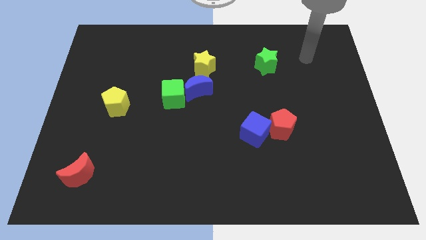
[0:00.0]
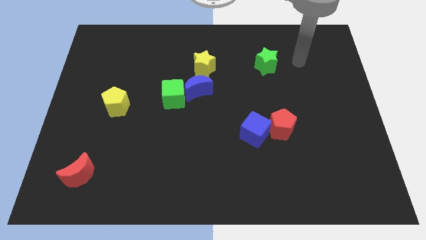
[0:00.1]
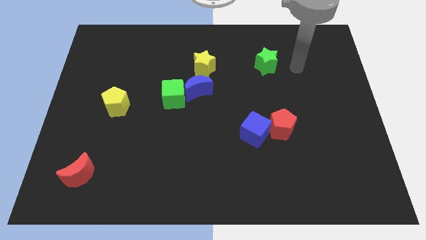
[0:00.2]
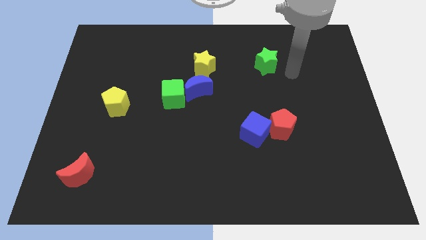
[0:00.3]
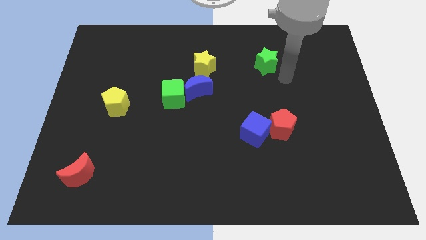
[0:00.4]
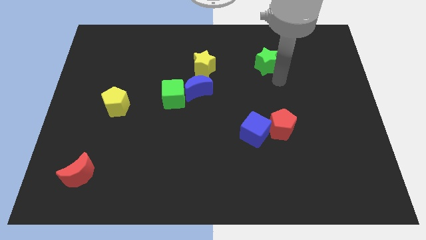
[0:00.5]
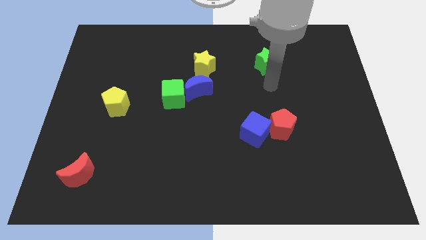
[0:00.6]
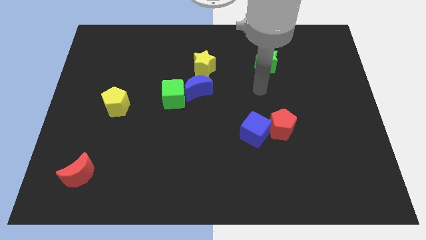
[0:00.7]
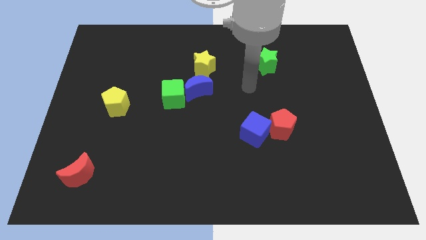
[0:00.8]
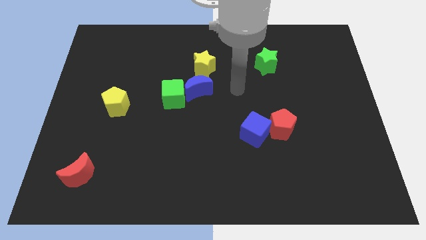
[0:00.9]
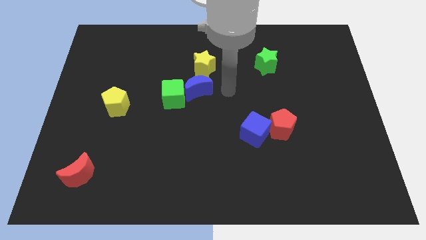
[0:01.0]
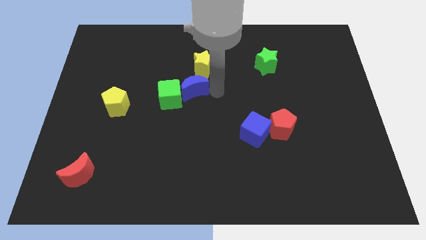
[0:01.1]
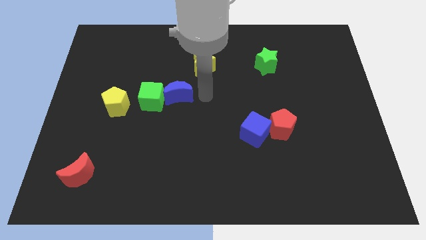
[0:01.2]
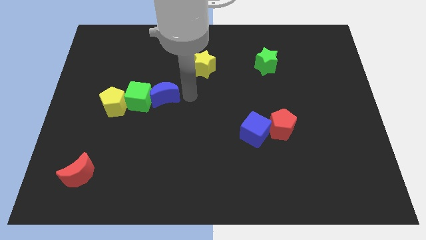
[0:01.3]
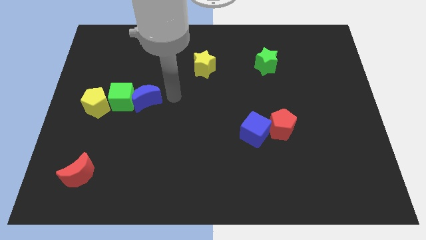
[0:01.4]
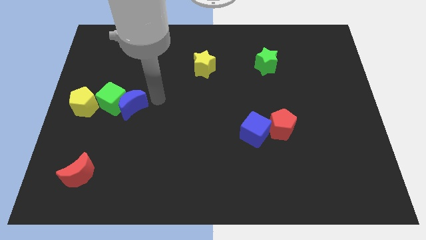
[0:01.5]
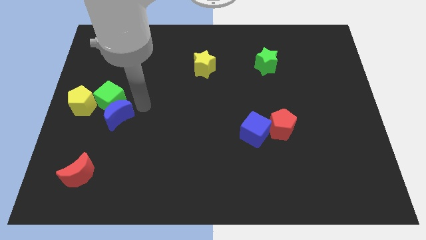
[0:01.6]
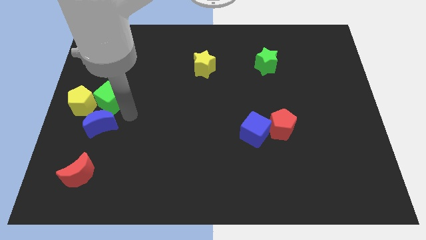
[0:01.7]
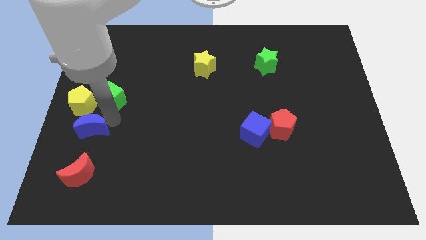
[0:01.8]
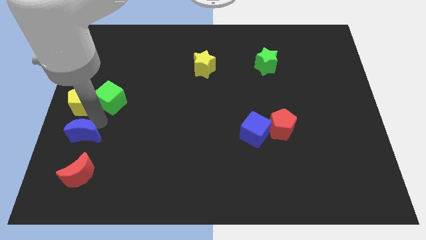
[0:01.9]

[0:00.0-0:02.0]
separate the green cube from the blue moon

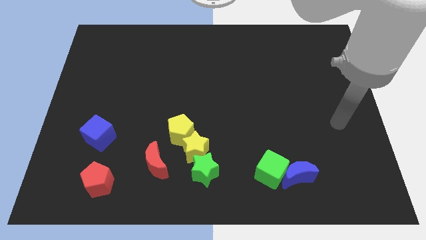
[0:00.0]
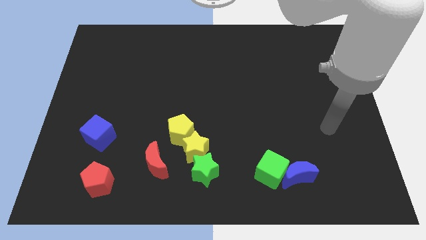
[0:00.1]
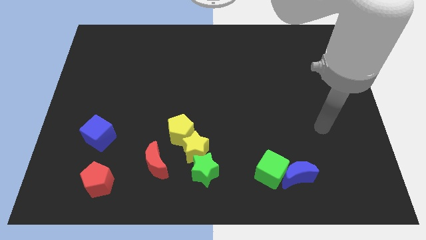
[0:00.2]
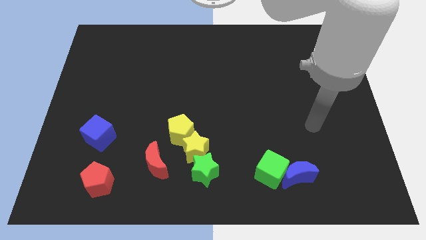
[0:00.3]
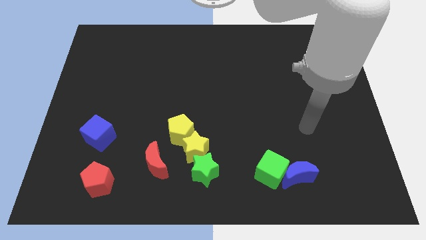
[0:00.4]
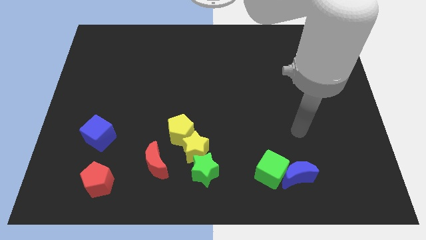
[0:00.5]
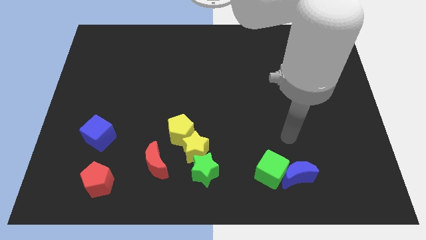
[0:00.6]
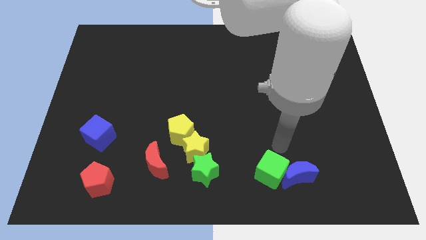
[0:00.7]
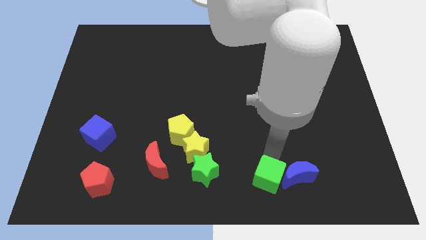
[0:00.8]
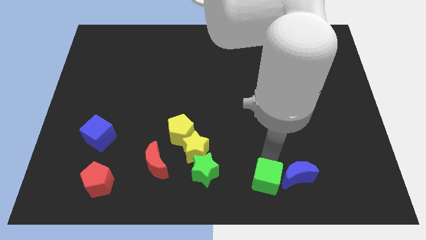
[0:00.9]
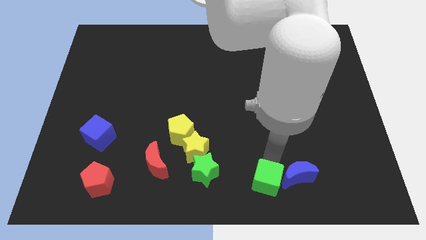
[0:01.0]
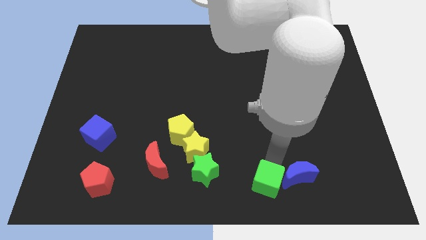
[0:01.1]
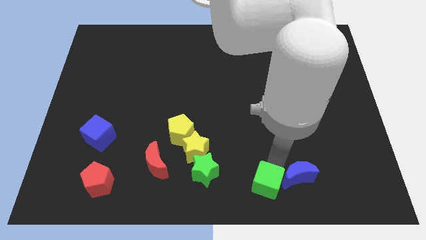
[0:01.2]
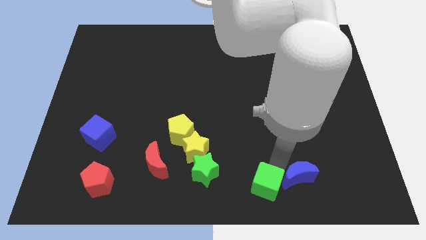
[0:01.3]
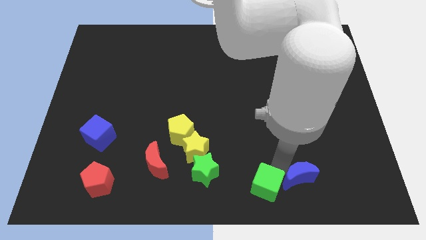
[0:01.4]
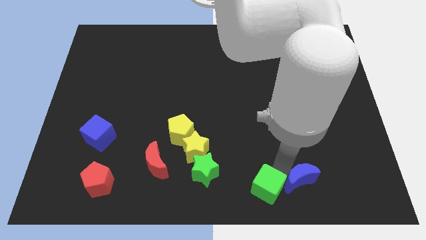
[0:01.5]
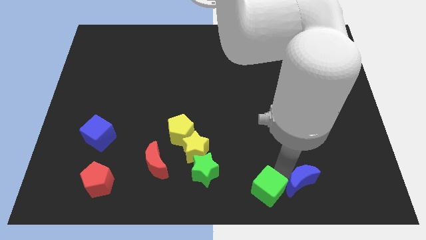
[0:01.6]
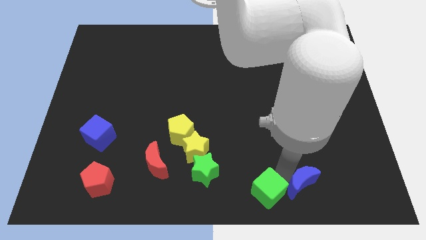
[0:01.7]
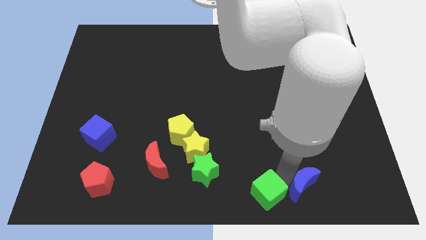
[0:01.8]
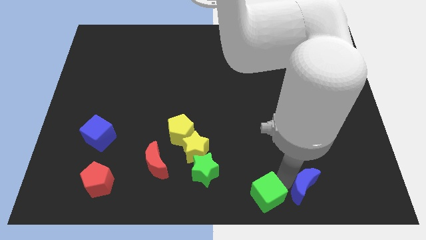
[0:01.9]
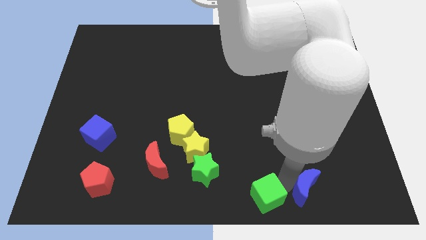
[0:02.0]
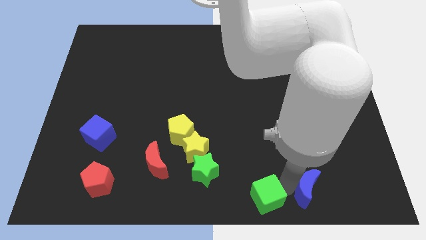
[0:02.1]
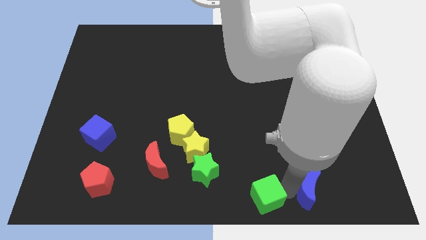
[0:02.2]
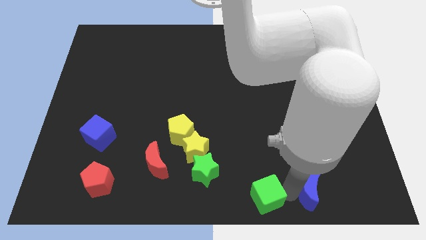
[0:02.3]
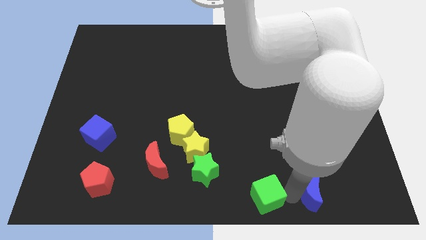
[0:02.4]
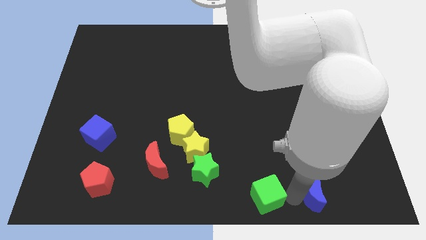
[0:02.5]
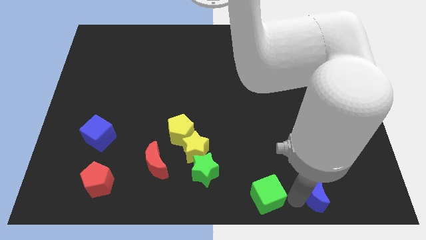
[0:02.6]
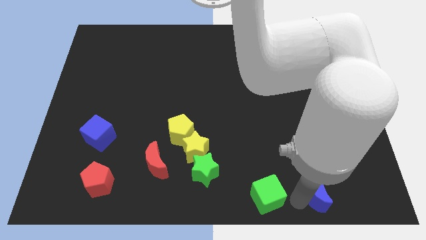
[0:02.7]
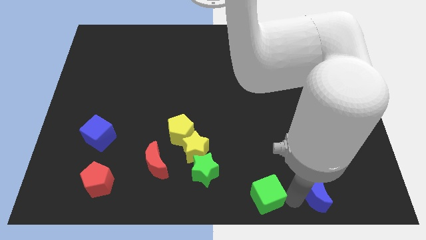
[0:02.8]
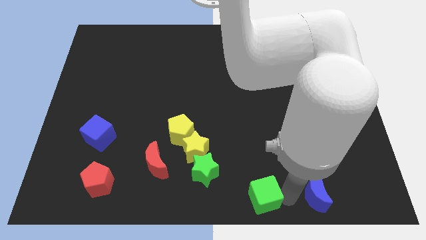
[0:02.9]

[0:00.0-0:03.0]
pull the blue moon apart from the green cube

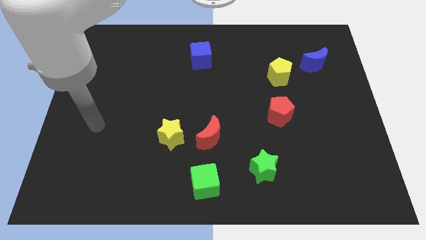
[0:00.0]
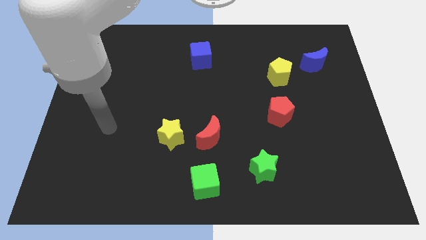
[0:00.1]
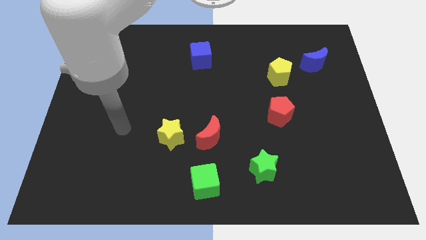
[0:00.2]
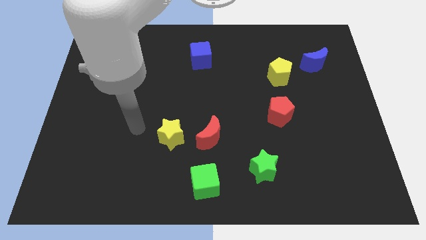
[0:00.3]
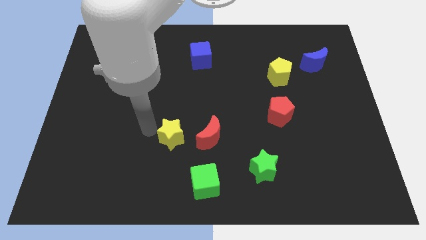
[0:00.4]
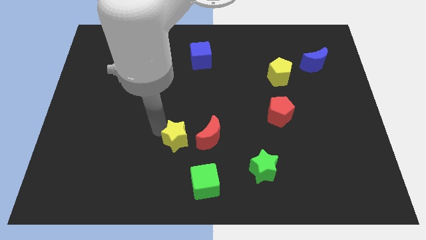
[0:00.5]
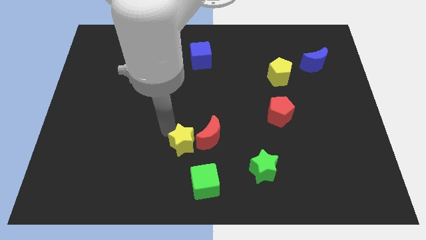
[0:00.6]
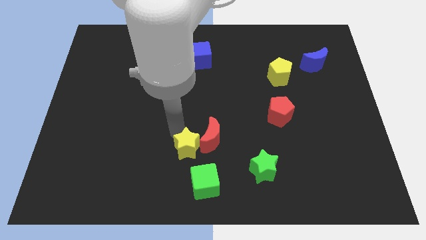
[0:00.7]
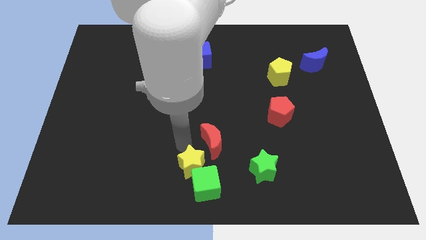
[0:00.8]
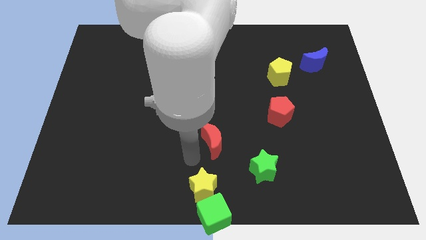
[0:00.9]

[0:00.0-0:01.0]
separate the red moon from the yellow star

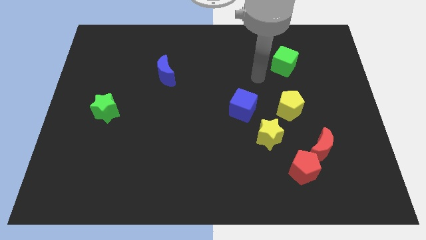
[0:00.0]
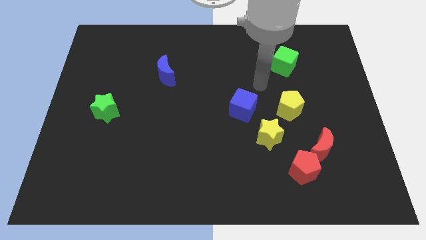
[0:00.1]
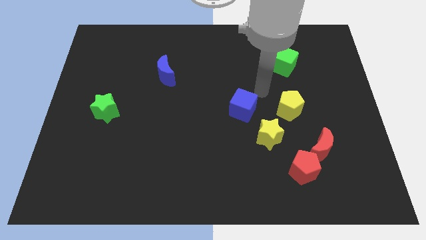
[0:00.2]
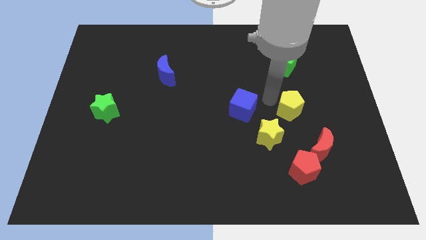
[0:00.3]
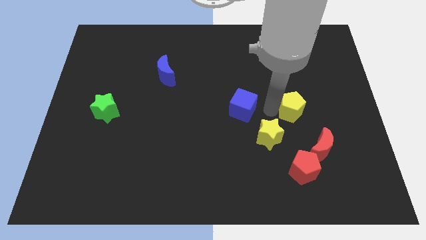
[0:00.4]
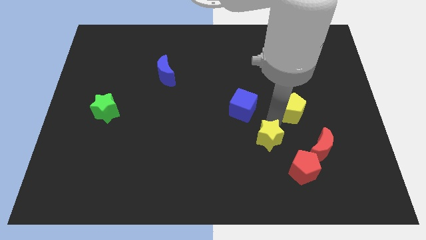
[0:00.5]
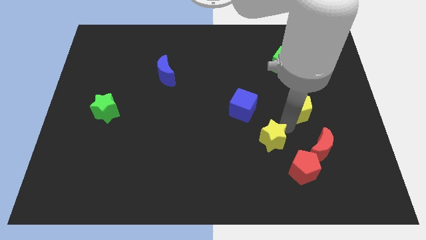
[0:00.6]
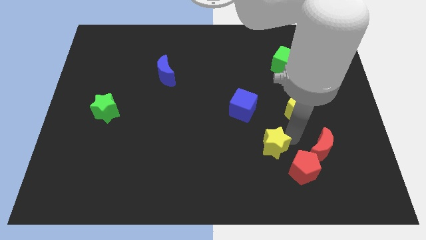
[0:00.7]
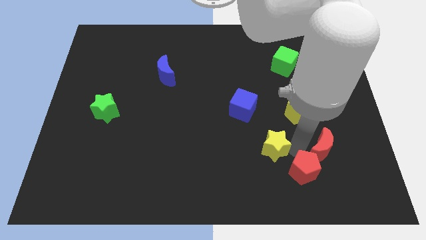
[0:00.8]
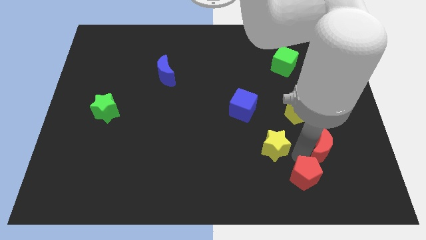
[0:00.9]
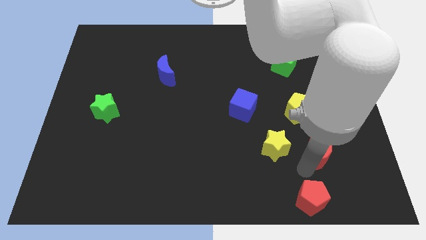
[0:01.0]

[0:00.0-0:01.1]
move the red moon away from the red pentagon

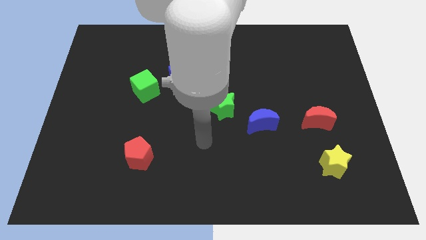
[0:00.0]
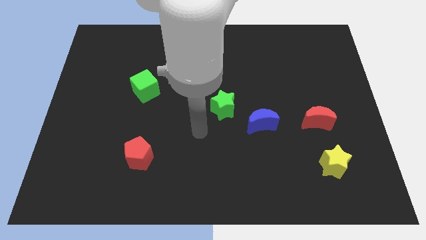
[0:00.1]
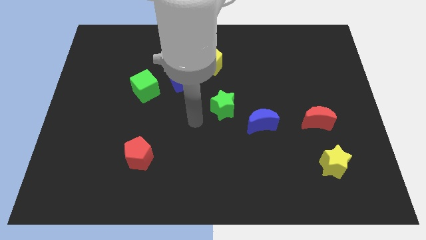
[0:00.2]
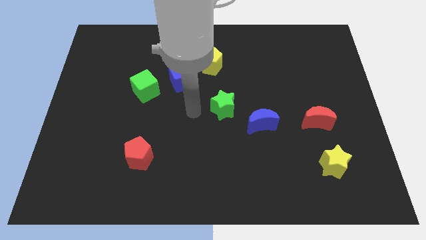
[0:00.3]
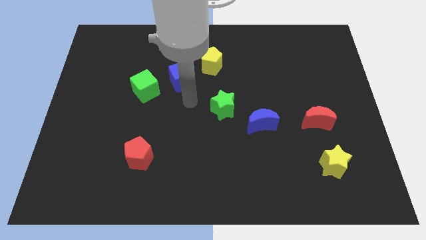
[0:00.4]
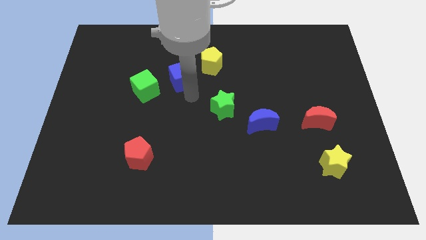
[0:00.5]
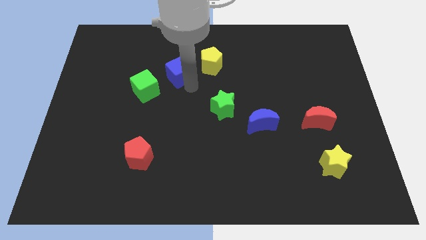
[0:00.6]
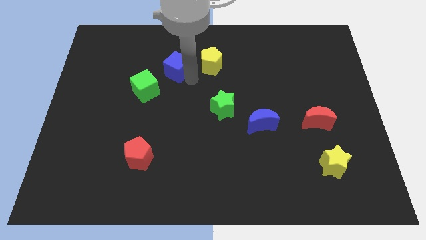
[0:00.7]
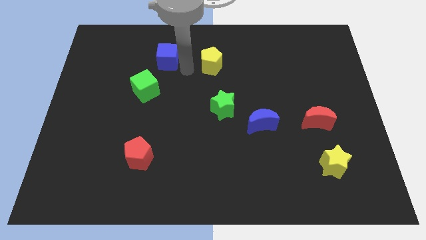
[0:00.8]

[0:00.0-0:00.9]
move the yellow pentagon away from the blue cube

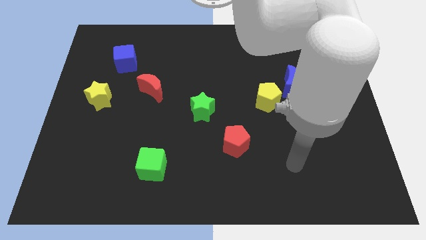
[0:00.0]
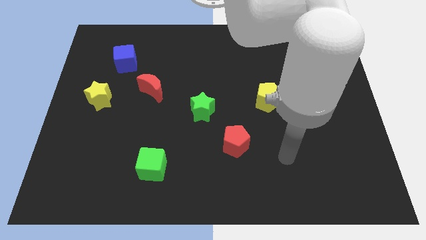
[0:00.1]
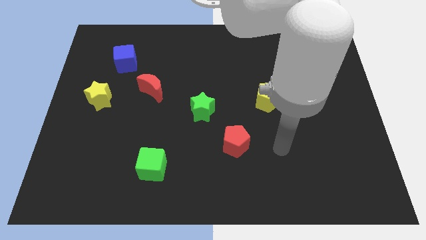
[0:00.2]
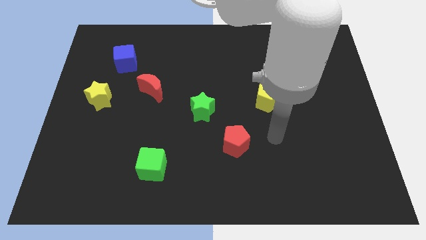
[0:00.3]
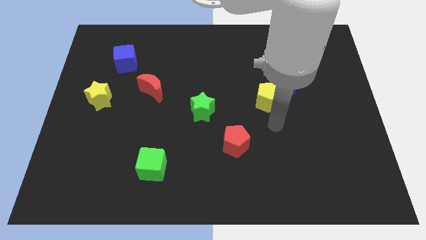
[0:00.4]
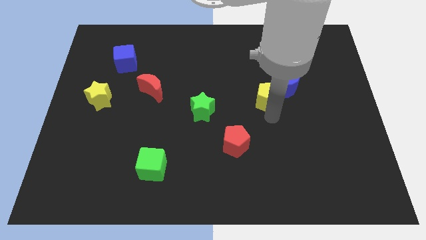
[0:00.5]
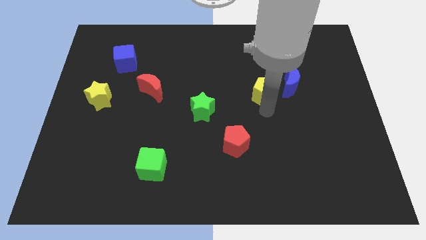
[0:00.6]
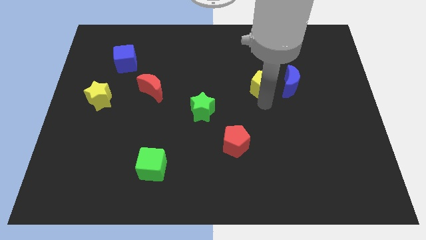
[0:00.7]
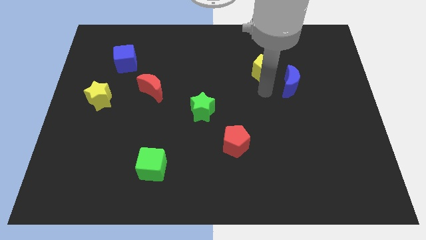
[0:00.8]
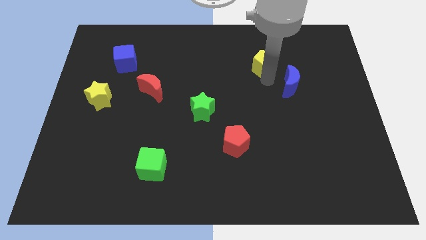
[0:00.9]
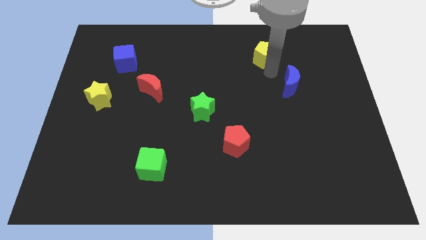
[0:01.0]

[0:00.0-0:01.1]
pull the blue moon apart from the yellow pentagon
